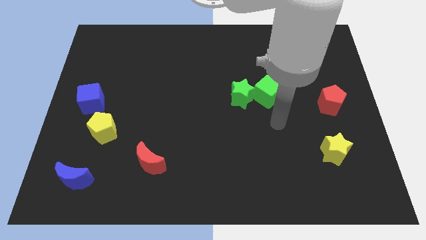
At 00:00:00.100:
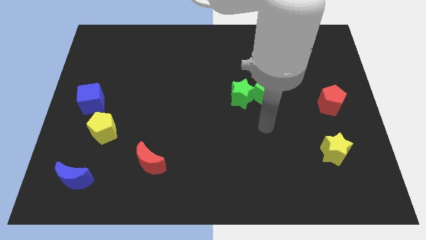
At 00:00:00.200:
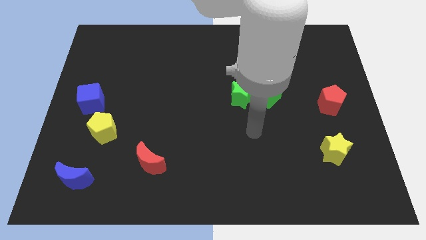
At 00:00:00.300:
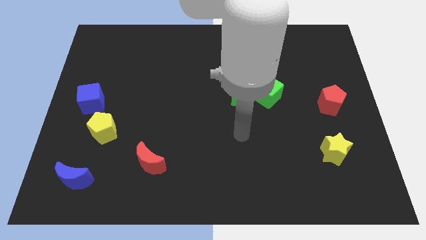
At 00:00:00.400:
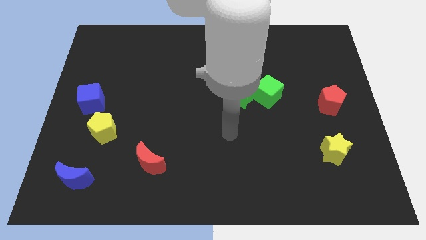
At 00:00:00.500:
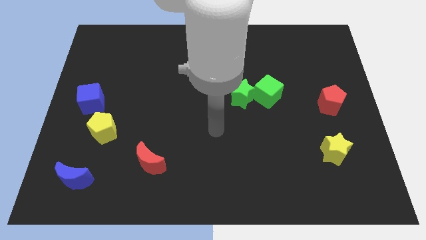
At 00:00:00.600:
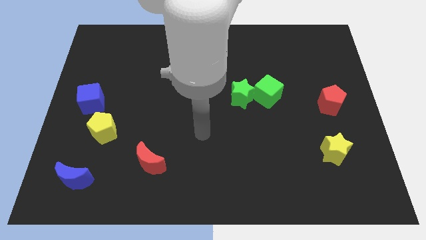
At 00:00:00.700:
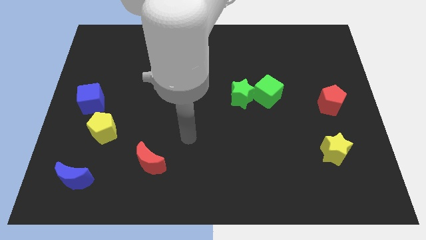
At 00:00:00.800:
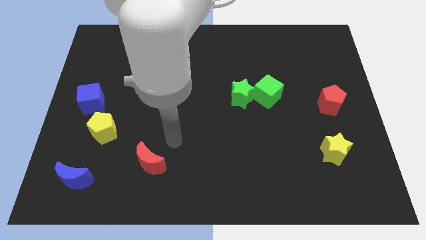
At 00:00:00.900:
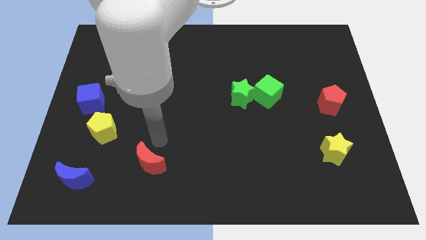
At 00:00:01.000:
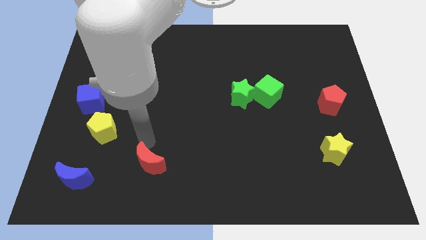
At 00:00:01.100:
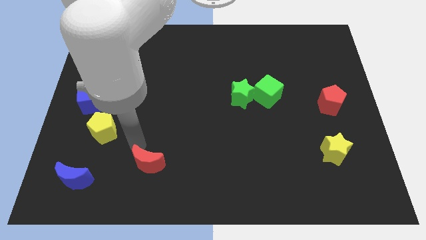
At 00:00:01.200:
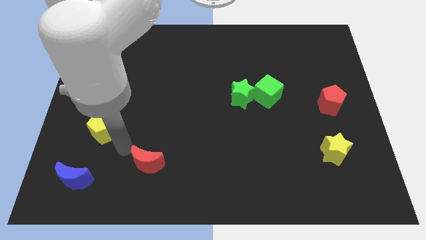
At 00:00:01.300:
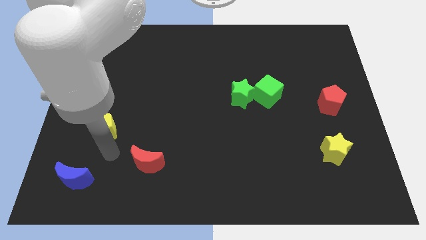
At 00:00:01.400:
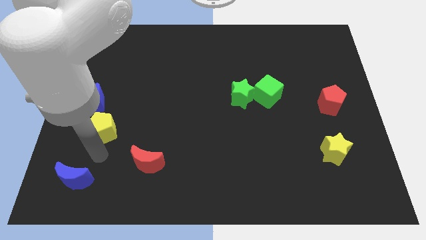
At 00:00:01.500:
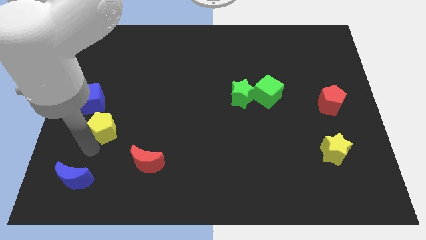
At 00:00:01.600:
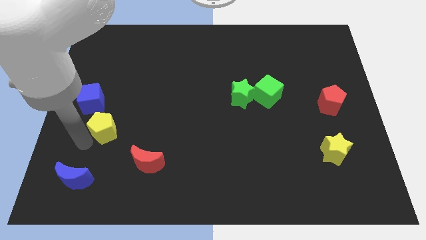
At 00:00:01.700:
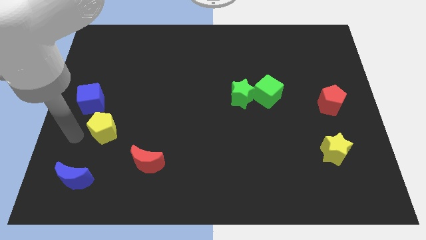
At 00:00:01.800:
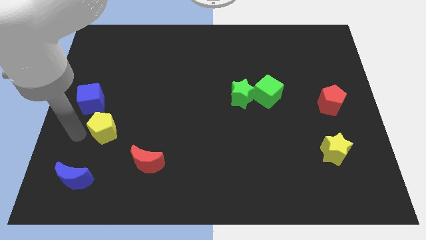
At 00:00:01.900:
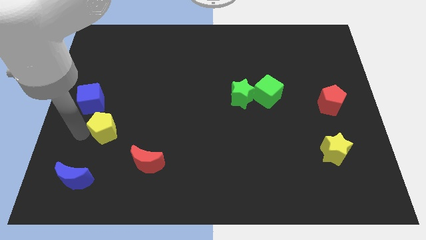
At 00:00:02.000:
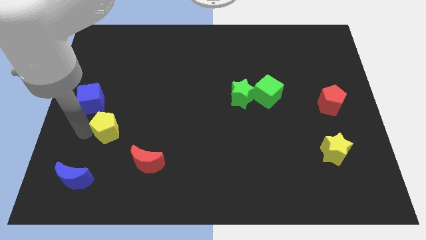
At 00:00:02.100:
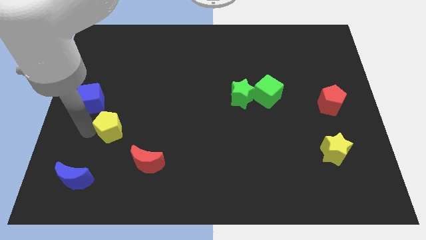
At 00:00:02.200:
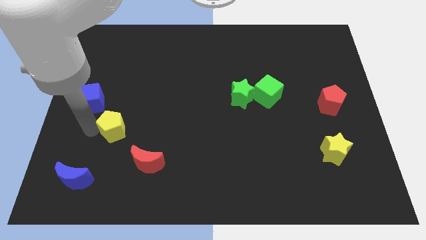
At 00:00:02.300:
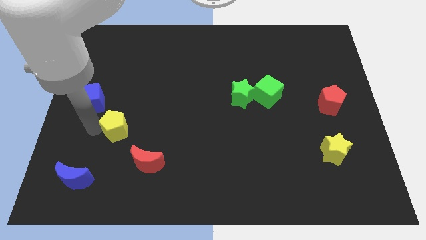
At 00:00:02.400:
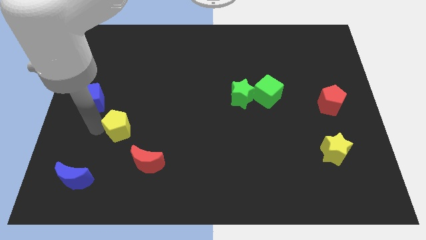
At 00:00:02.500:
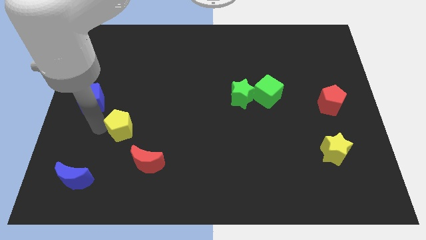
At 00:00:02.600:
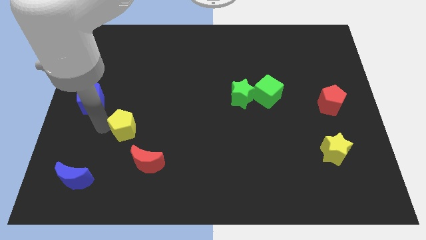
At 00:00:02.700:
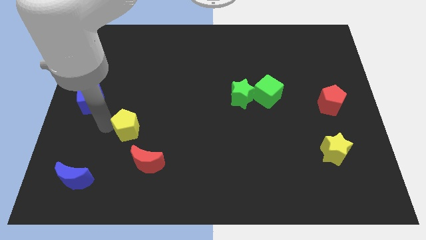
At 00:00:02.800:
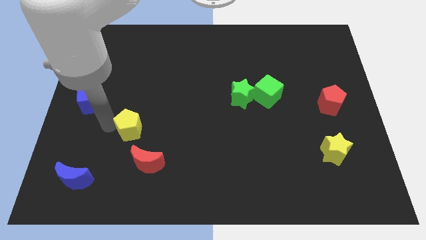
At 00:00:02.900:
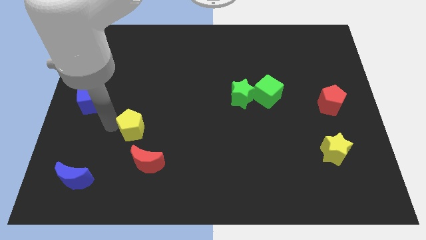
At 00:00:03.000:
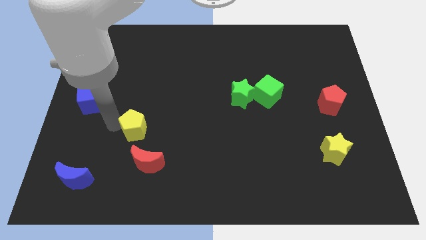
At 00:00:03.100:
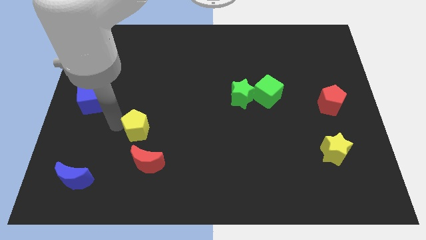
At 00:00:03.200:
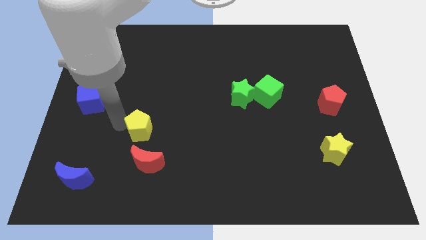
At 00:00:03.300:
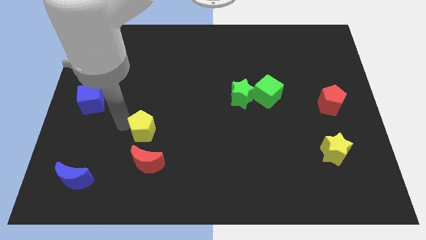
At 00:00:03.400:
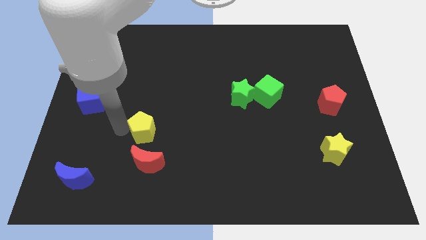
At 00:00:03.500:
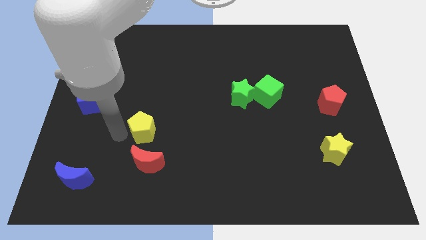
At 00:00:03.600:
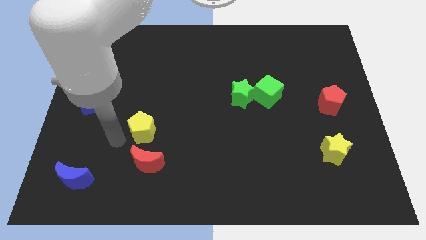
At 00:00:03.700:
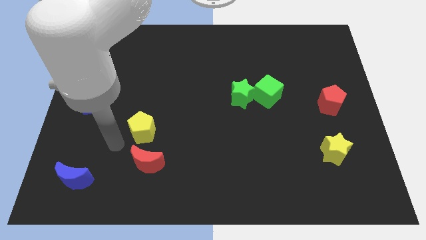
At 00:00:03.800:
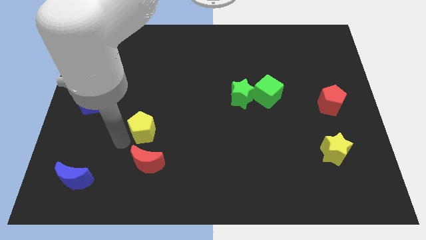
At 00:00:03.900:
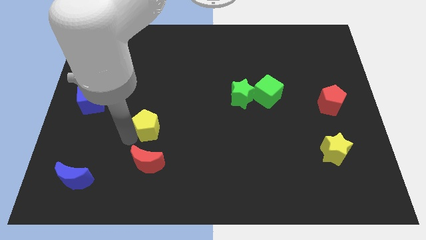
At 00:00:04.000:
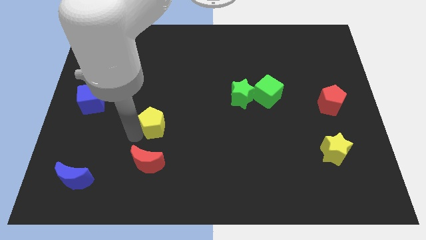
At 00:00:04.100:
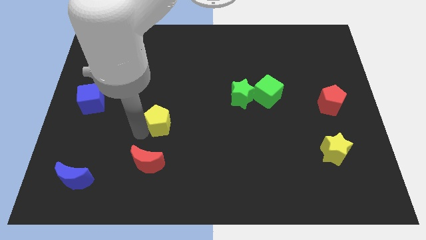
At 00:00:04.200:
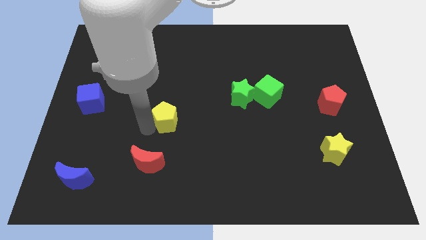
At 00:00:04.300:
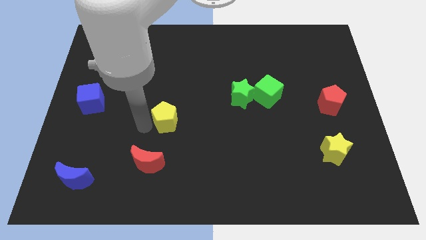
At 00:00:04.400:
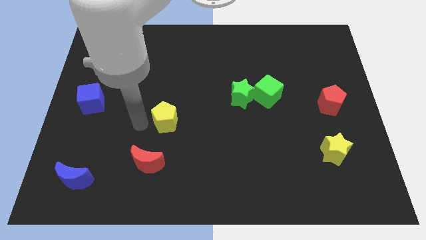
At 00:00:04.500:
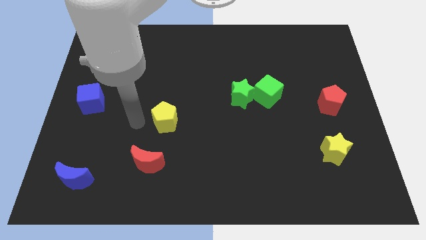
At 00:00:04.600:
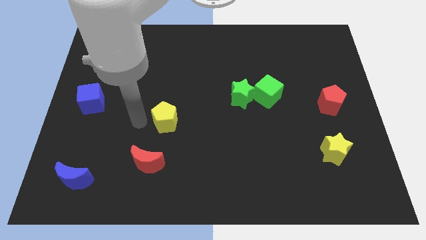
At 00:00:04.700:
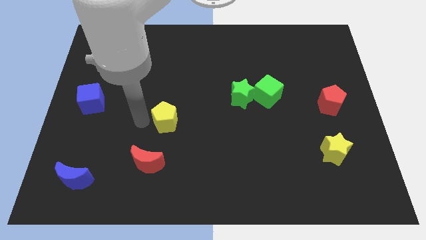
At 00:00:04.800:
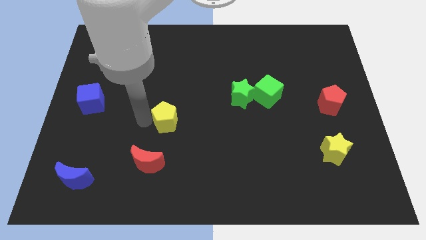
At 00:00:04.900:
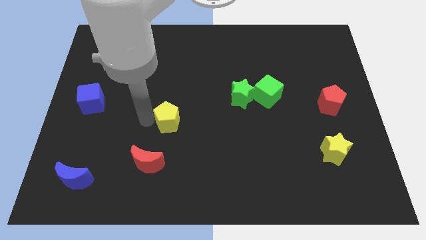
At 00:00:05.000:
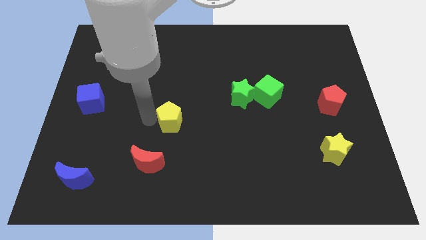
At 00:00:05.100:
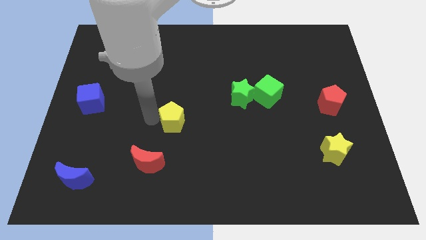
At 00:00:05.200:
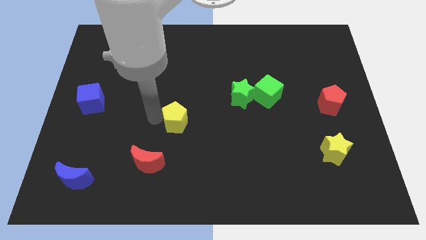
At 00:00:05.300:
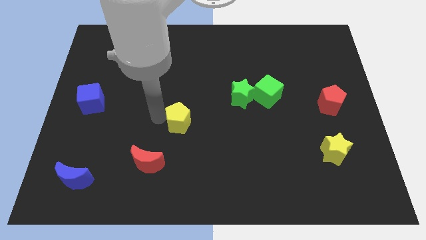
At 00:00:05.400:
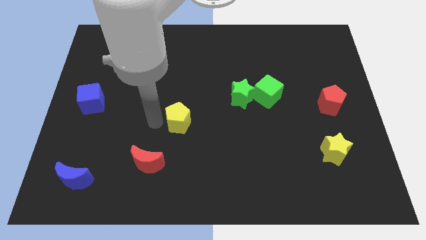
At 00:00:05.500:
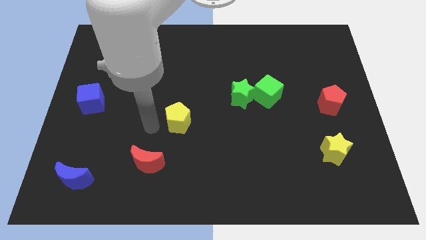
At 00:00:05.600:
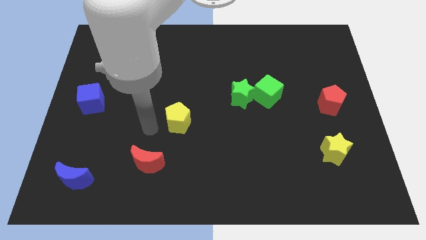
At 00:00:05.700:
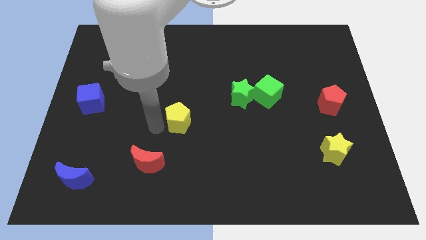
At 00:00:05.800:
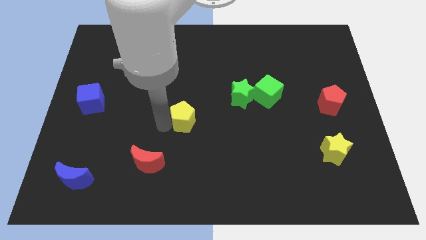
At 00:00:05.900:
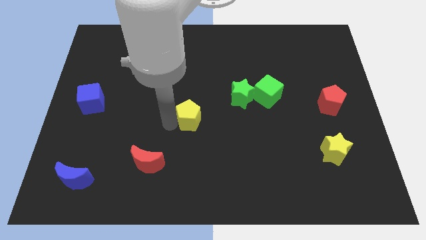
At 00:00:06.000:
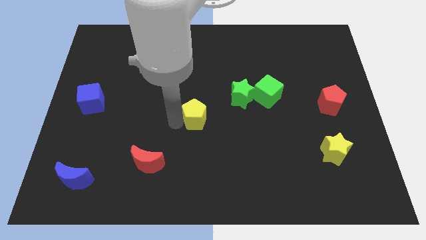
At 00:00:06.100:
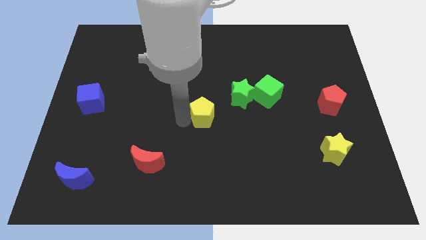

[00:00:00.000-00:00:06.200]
put the yellow pentagon to the bottom left side of the green star

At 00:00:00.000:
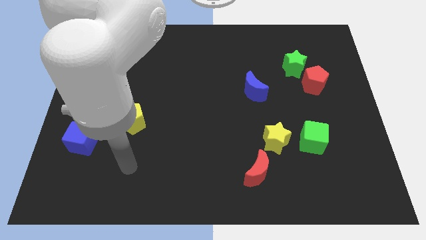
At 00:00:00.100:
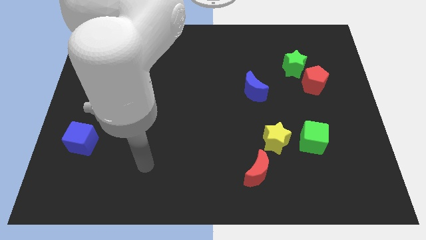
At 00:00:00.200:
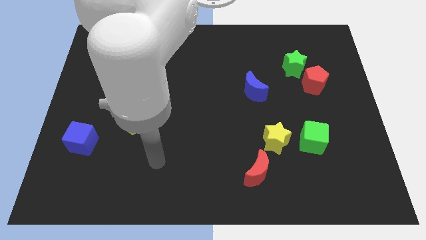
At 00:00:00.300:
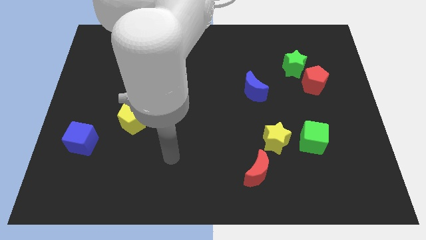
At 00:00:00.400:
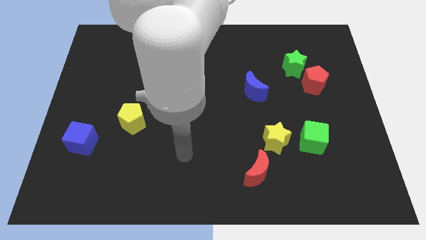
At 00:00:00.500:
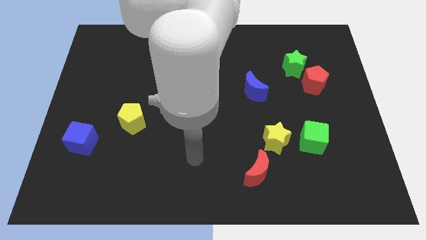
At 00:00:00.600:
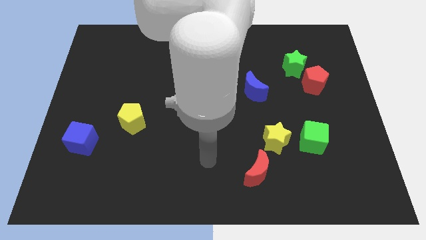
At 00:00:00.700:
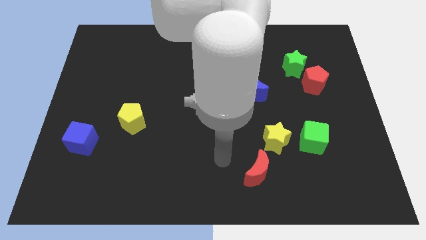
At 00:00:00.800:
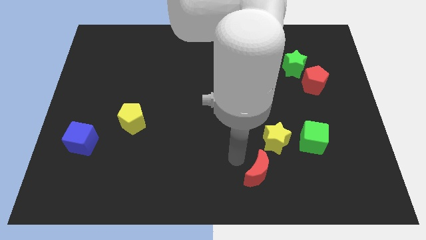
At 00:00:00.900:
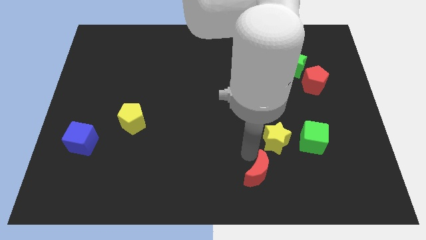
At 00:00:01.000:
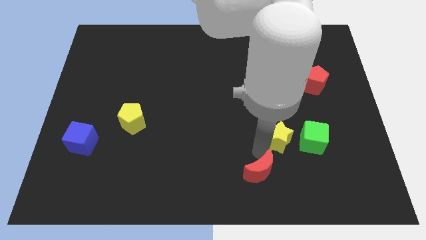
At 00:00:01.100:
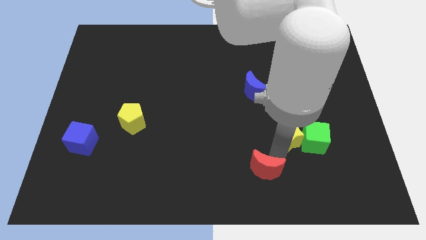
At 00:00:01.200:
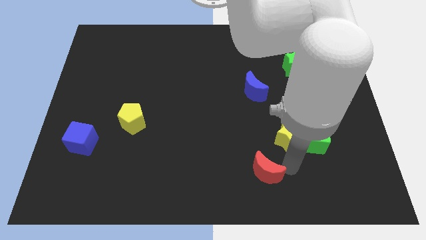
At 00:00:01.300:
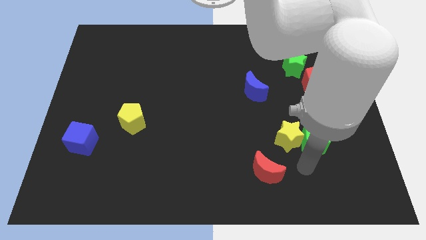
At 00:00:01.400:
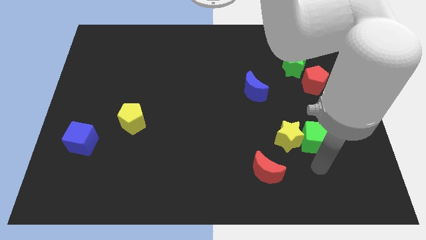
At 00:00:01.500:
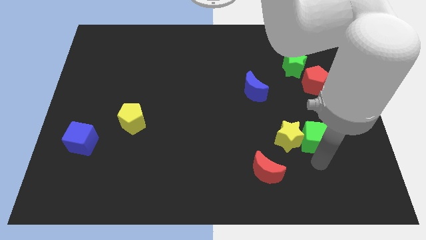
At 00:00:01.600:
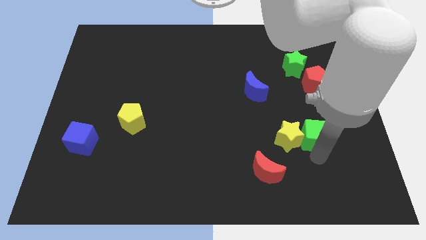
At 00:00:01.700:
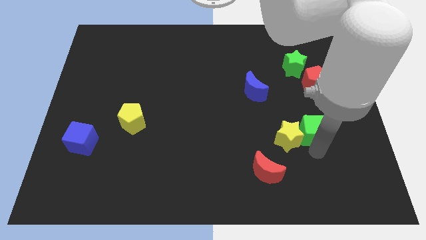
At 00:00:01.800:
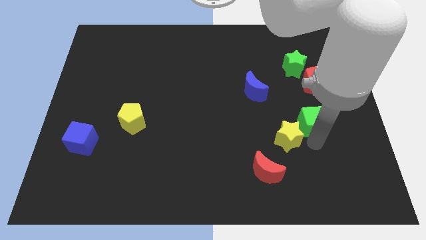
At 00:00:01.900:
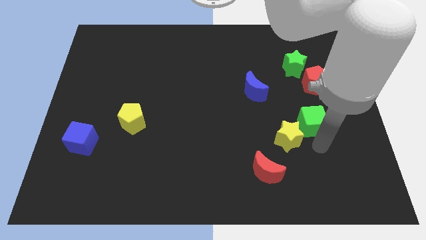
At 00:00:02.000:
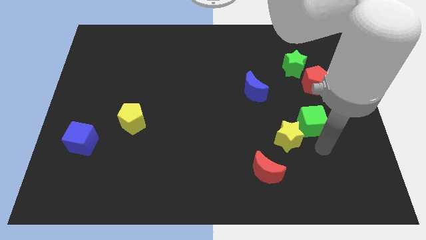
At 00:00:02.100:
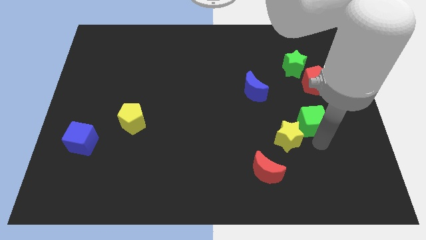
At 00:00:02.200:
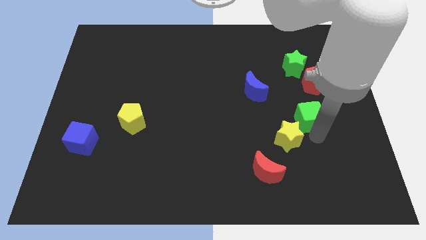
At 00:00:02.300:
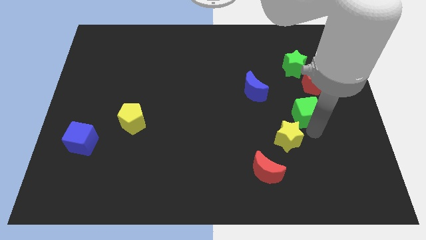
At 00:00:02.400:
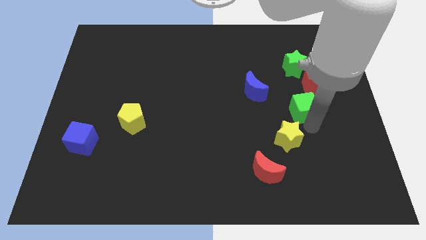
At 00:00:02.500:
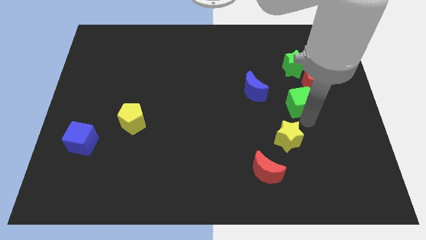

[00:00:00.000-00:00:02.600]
put the green cube just right of the blue moon
